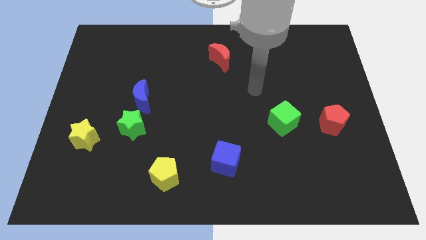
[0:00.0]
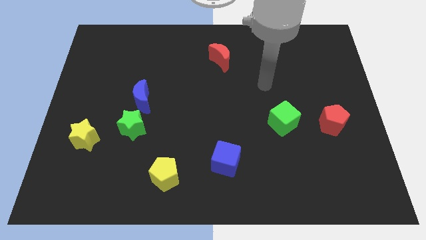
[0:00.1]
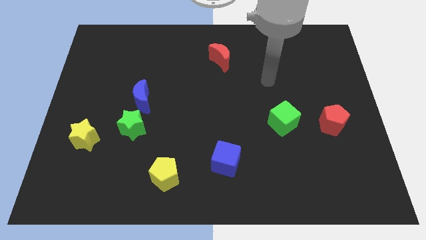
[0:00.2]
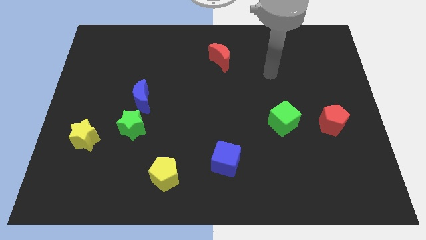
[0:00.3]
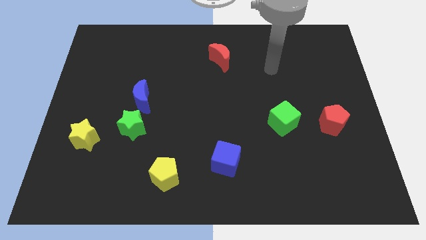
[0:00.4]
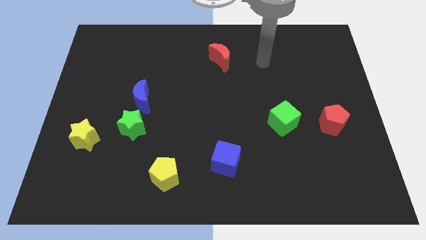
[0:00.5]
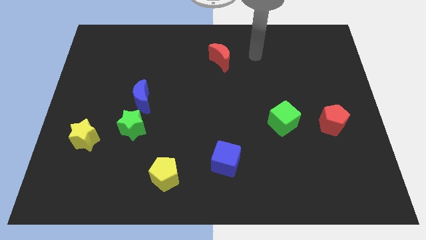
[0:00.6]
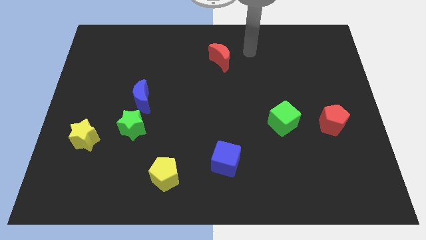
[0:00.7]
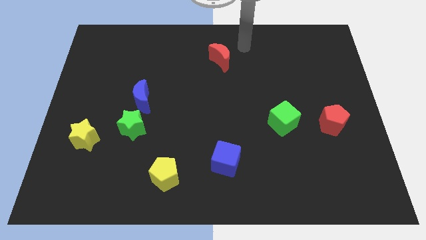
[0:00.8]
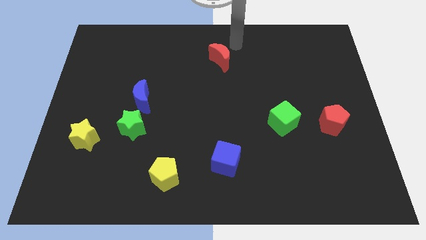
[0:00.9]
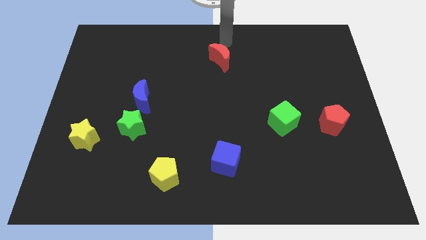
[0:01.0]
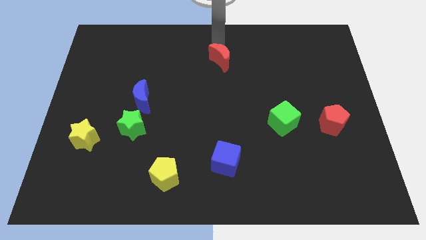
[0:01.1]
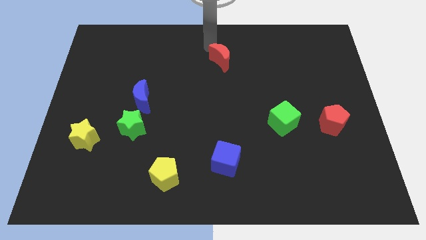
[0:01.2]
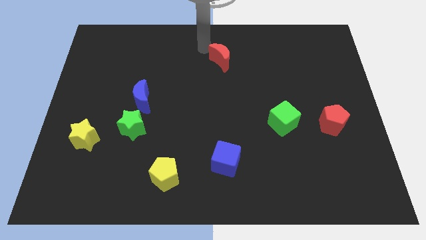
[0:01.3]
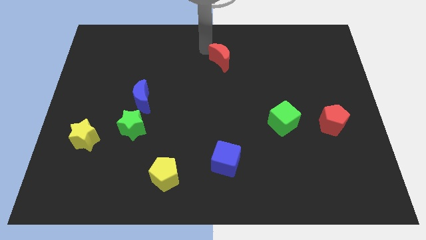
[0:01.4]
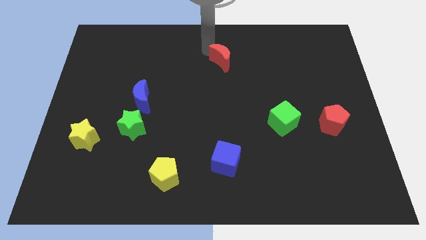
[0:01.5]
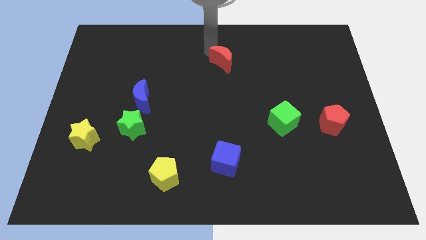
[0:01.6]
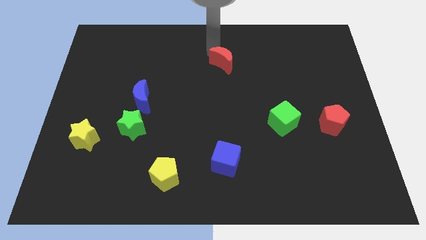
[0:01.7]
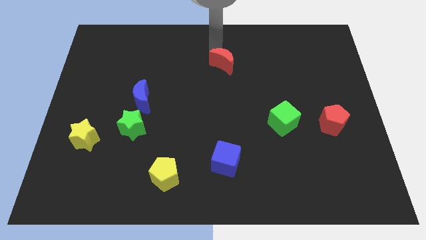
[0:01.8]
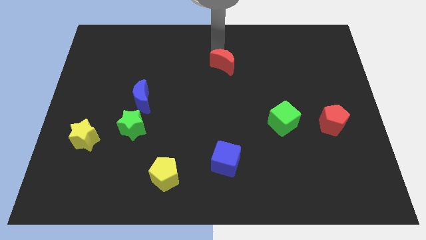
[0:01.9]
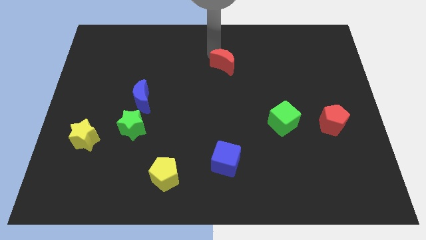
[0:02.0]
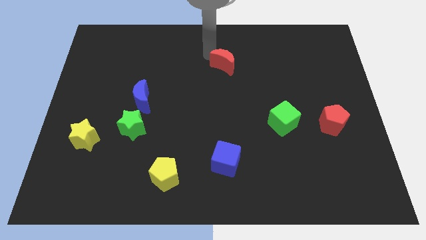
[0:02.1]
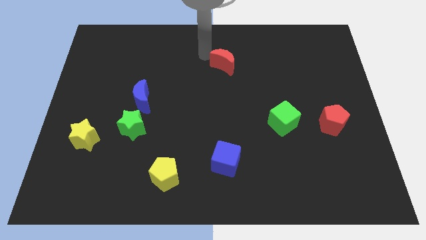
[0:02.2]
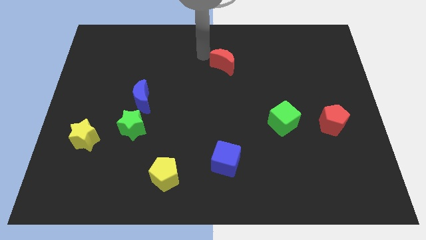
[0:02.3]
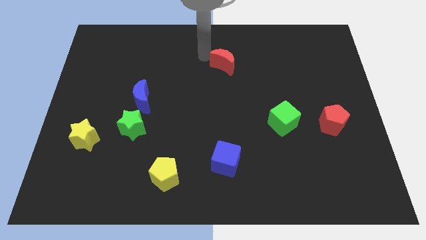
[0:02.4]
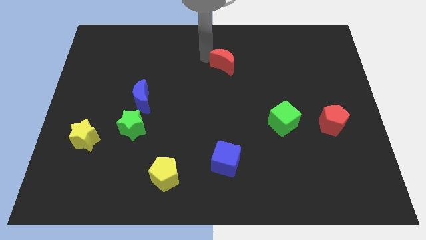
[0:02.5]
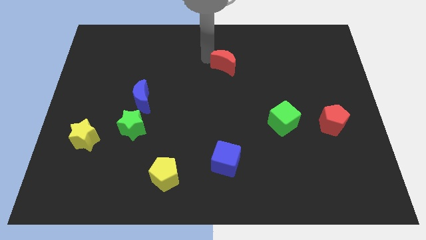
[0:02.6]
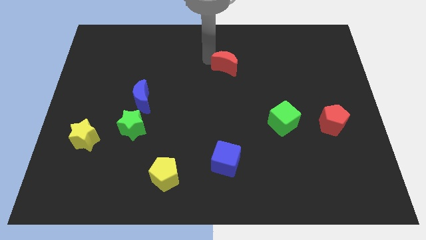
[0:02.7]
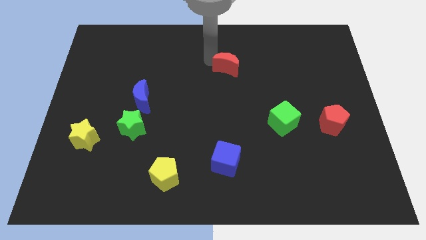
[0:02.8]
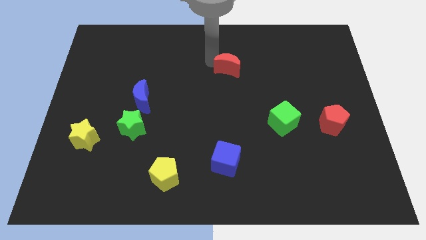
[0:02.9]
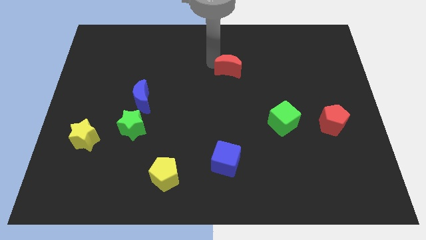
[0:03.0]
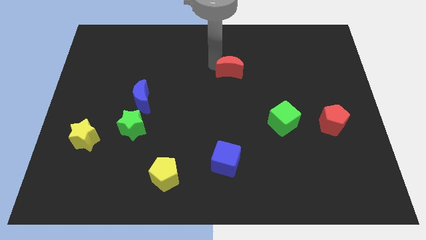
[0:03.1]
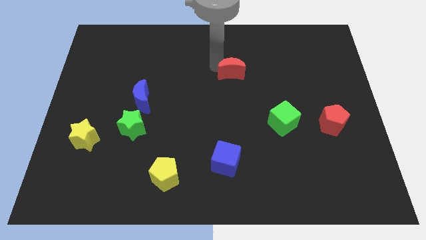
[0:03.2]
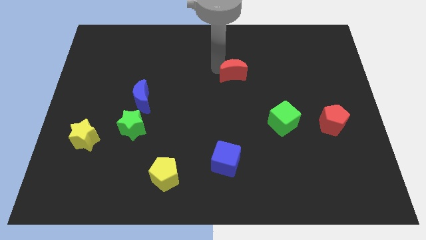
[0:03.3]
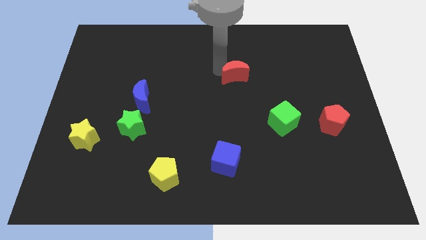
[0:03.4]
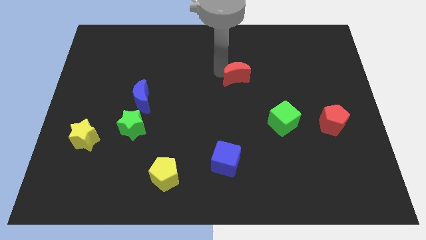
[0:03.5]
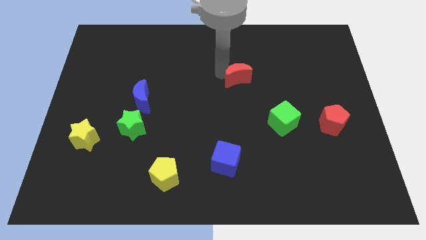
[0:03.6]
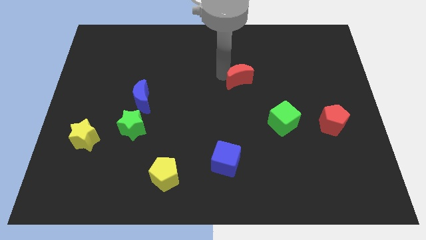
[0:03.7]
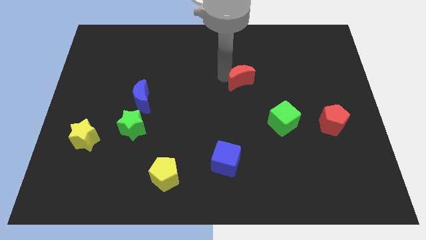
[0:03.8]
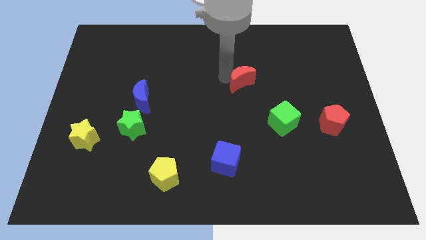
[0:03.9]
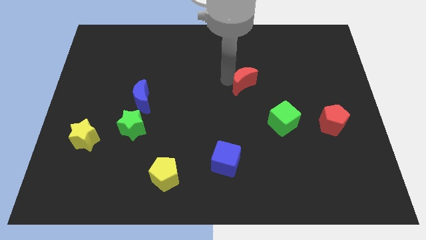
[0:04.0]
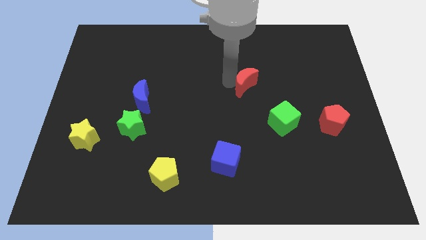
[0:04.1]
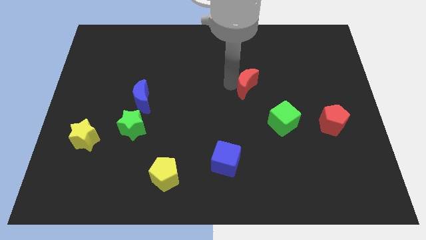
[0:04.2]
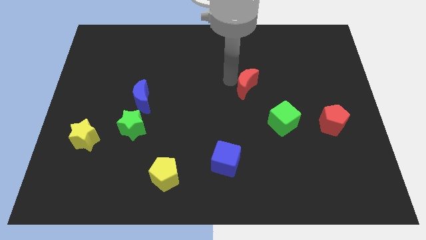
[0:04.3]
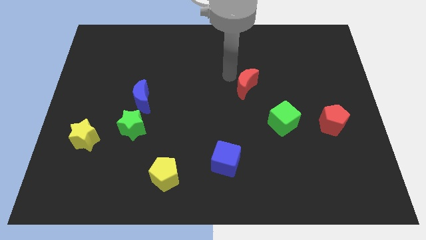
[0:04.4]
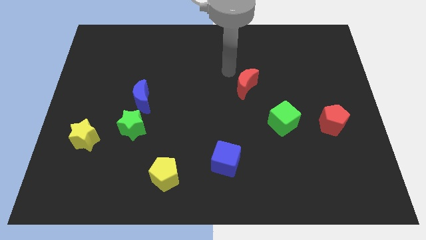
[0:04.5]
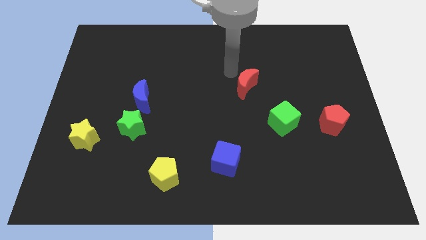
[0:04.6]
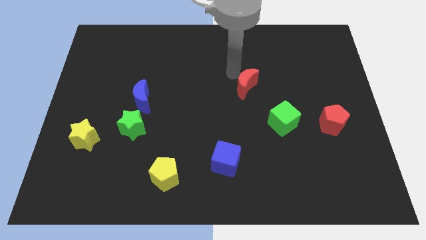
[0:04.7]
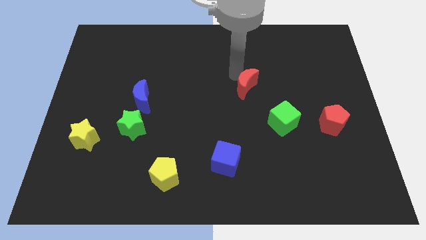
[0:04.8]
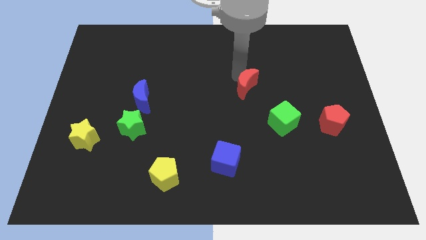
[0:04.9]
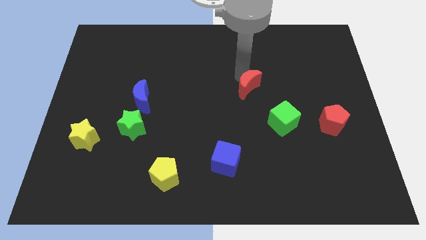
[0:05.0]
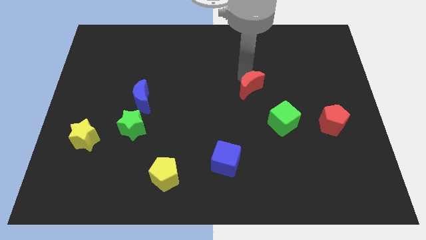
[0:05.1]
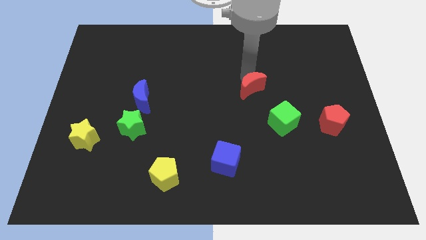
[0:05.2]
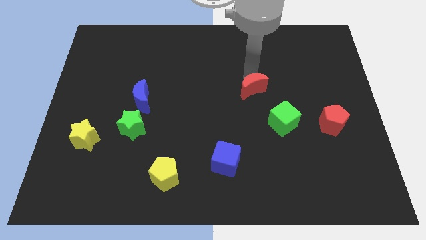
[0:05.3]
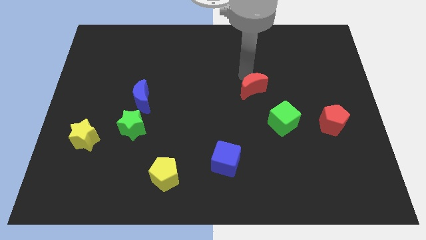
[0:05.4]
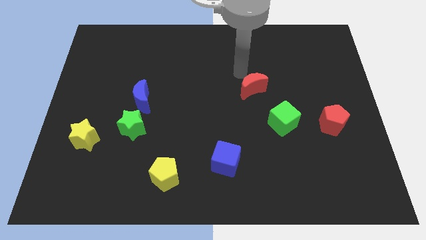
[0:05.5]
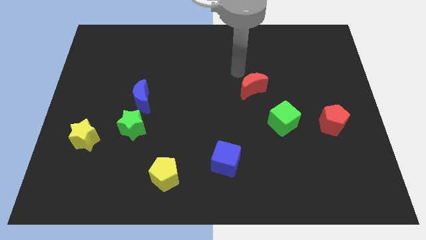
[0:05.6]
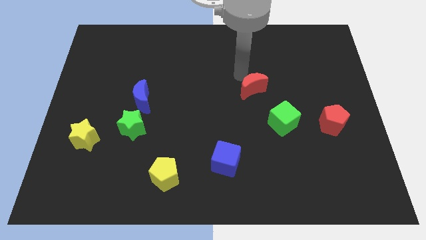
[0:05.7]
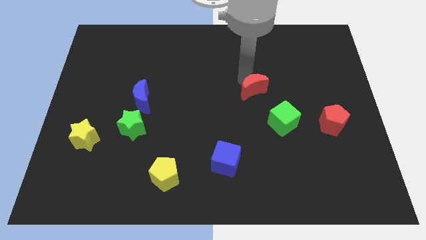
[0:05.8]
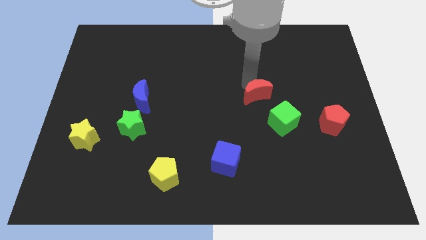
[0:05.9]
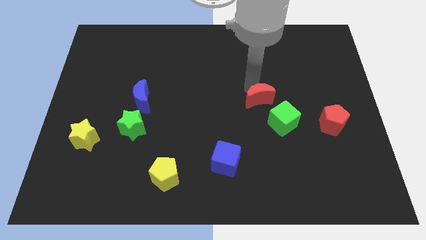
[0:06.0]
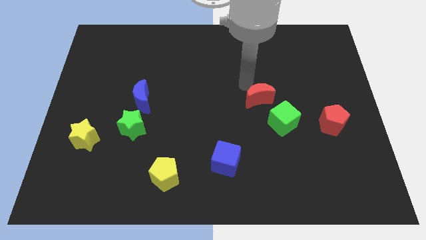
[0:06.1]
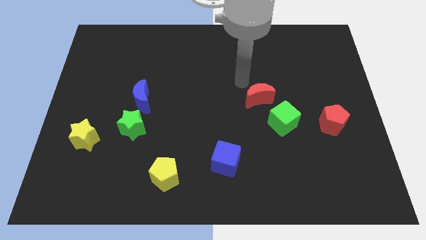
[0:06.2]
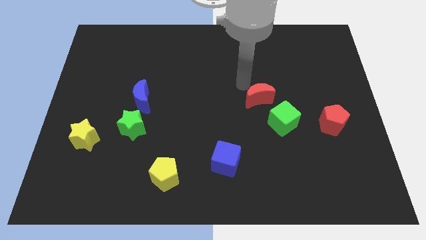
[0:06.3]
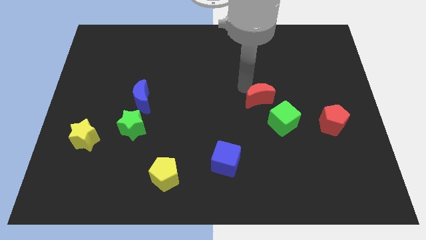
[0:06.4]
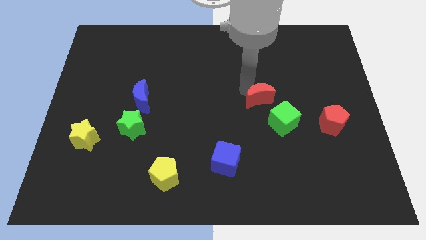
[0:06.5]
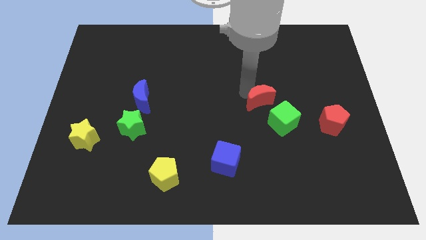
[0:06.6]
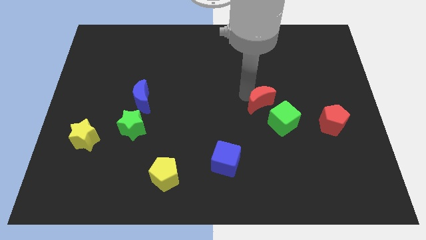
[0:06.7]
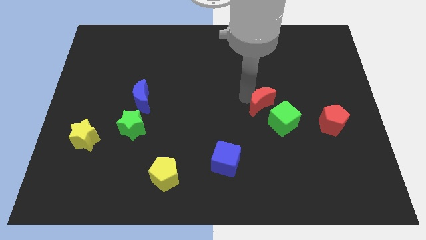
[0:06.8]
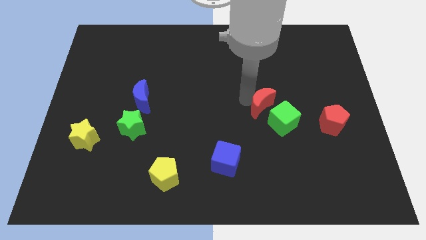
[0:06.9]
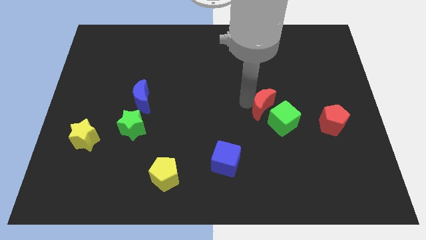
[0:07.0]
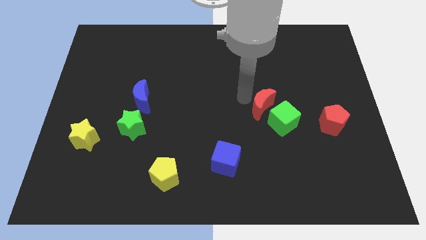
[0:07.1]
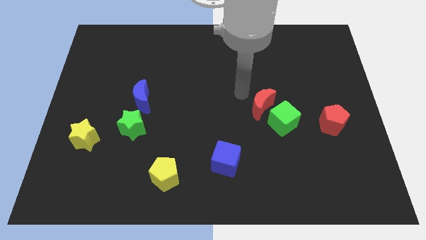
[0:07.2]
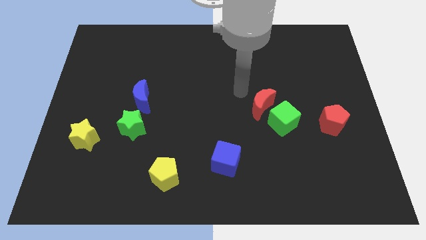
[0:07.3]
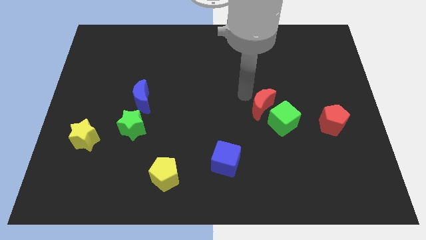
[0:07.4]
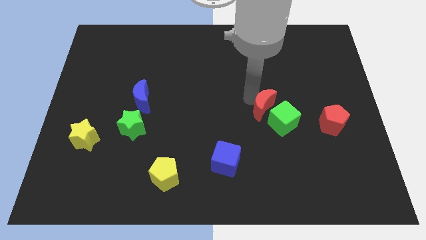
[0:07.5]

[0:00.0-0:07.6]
put the red moon towards the green cube

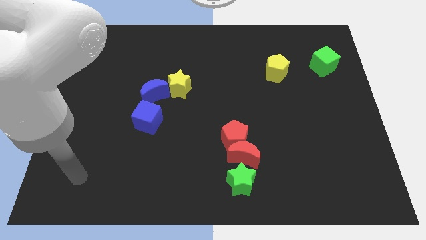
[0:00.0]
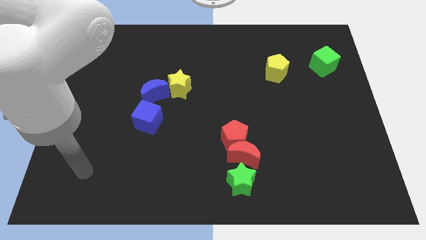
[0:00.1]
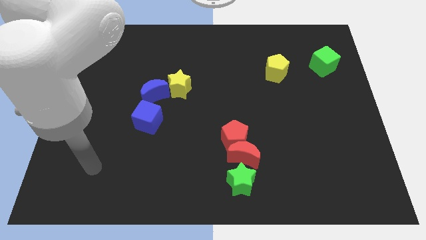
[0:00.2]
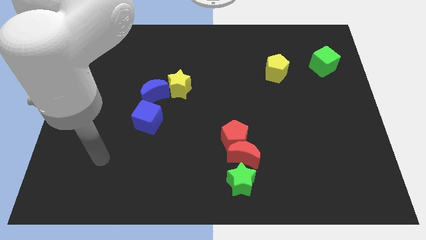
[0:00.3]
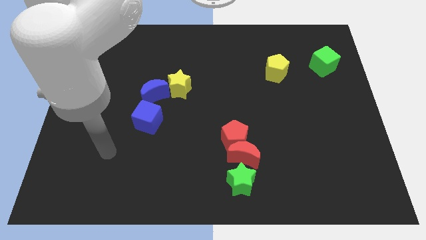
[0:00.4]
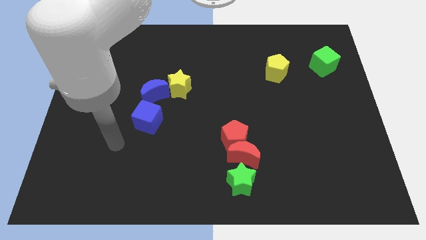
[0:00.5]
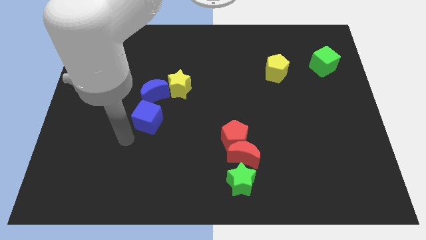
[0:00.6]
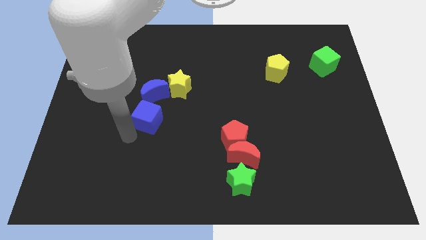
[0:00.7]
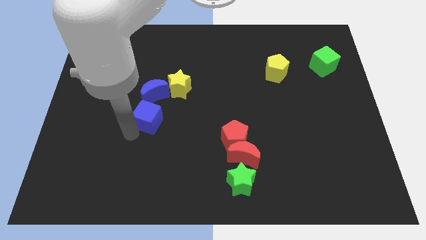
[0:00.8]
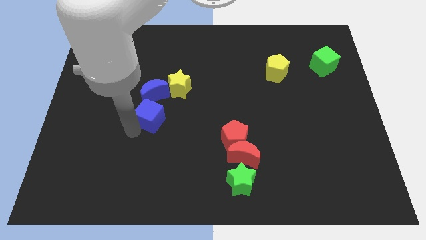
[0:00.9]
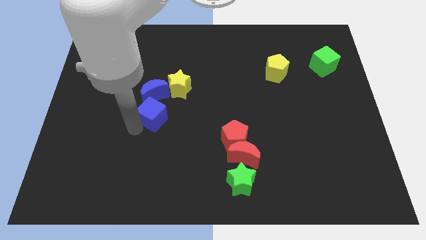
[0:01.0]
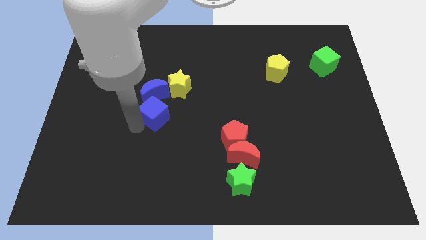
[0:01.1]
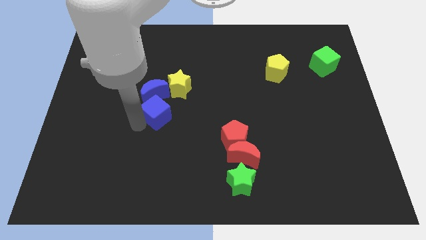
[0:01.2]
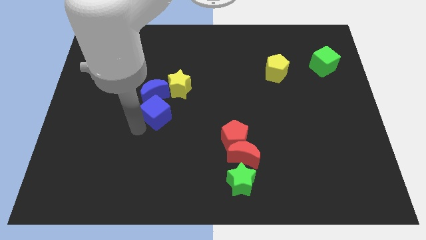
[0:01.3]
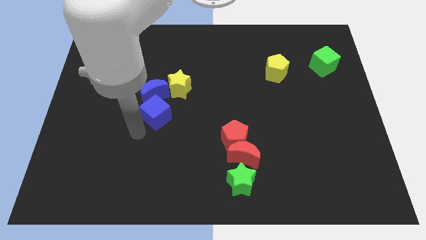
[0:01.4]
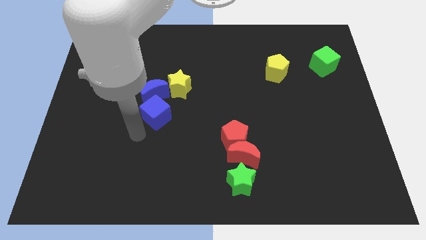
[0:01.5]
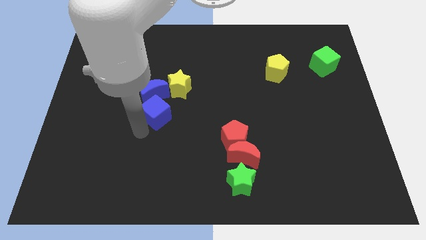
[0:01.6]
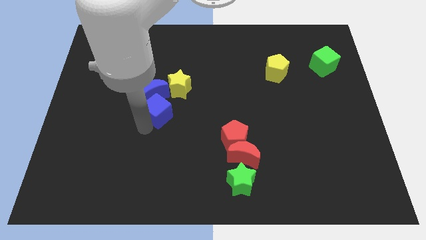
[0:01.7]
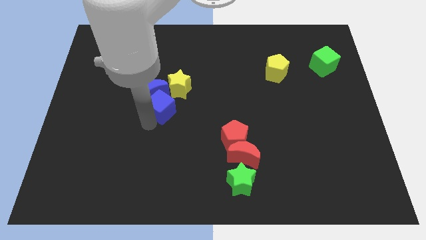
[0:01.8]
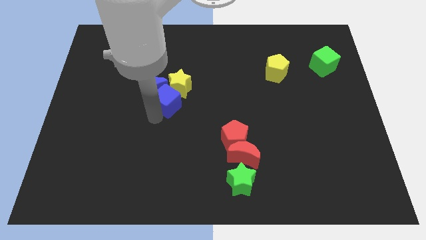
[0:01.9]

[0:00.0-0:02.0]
slide the blue cube towards the yellow star
